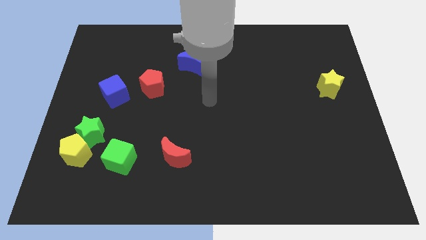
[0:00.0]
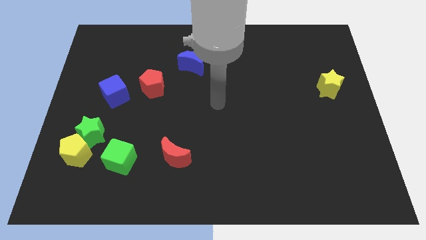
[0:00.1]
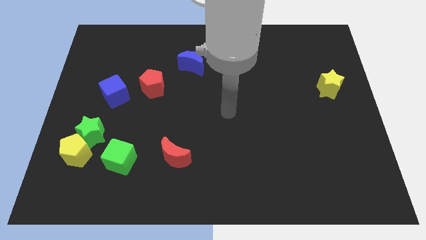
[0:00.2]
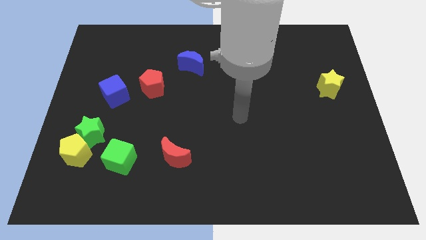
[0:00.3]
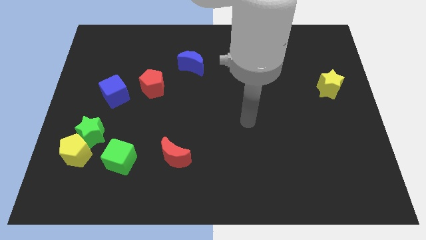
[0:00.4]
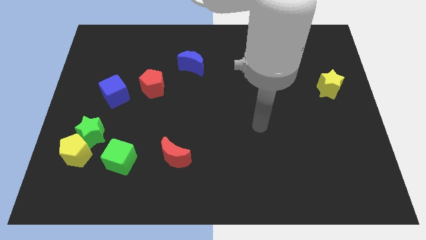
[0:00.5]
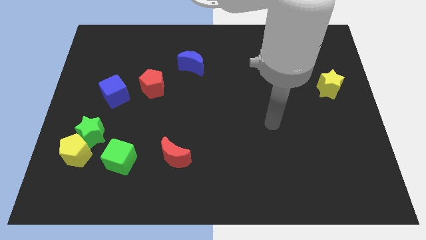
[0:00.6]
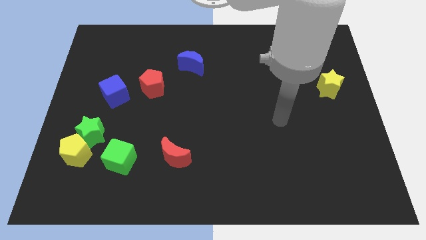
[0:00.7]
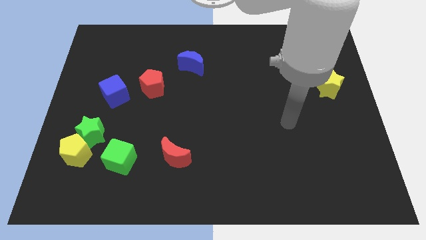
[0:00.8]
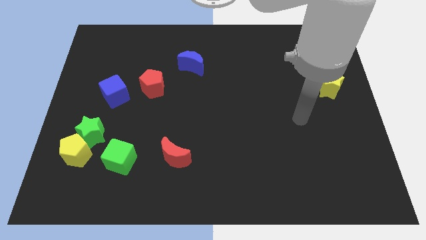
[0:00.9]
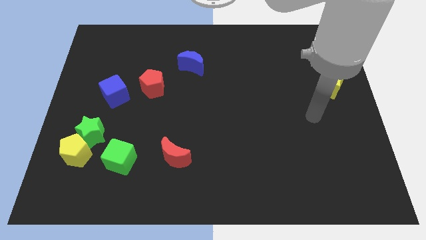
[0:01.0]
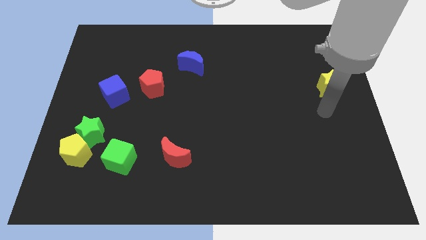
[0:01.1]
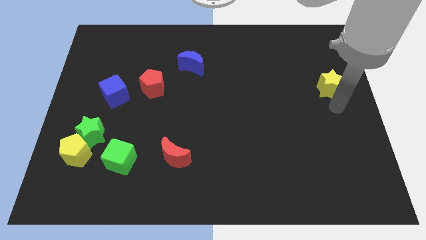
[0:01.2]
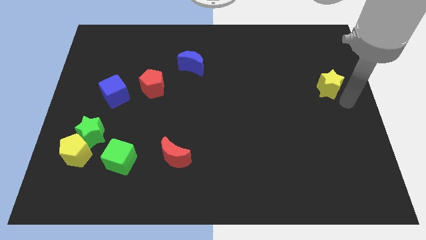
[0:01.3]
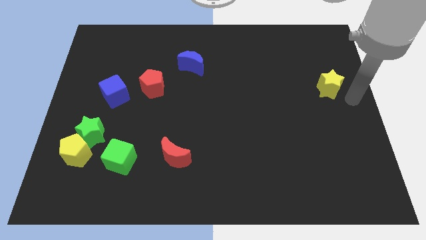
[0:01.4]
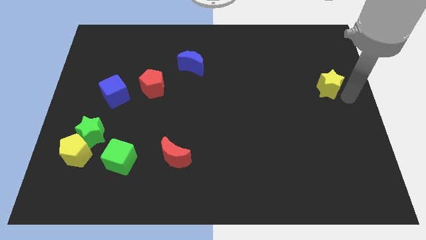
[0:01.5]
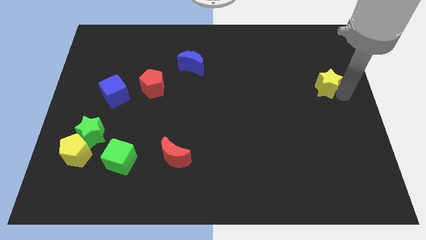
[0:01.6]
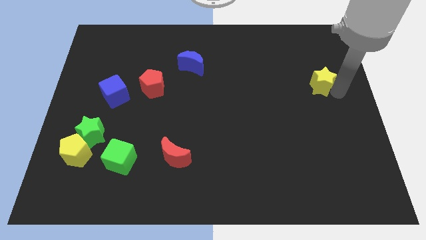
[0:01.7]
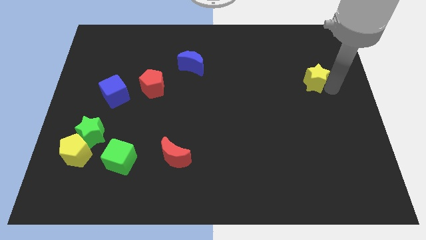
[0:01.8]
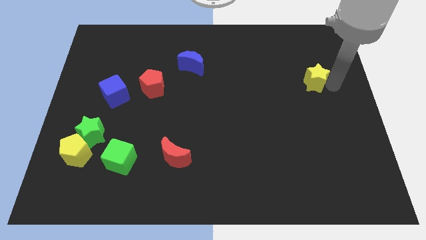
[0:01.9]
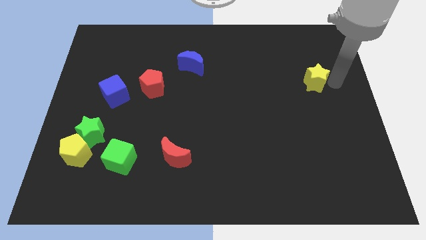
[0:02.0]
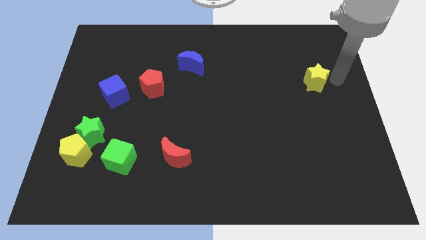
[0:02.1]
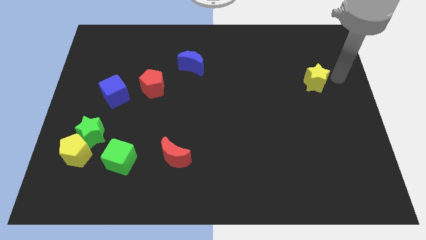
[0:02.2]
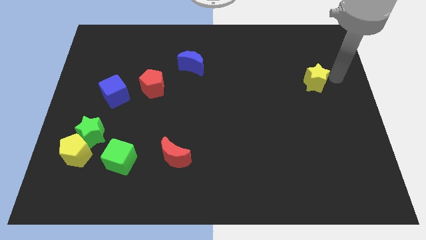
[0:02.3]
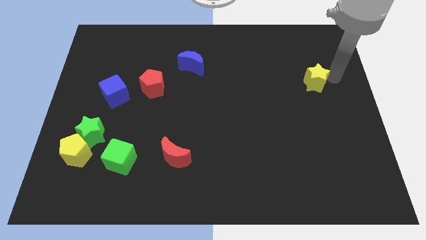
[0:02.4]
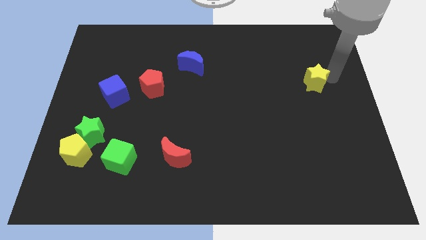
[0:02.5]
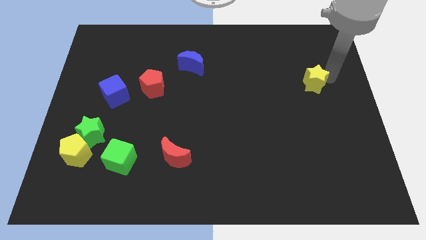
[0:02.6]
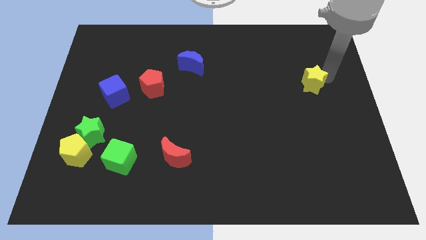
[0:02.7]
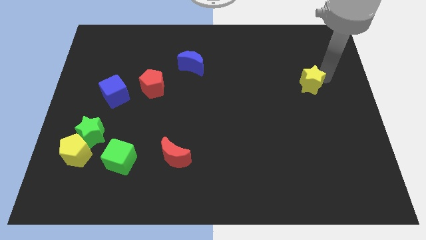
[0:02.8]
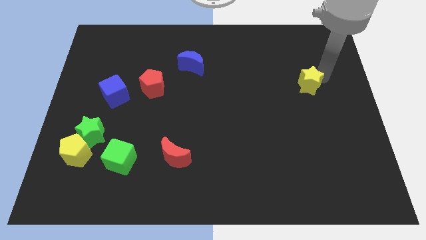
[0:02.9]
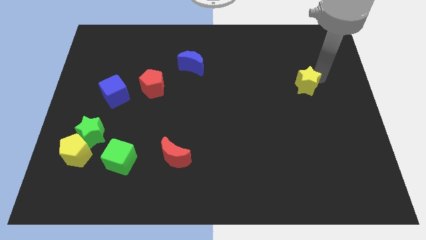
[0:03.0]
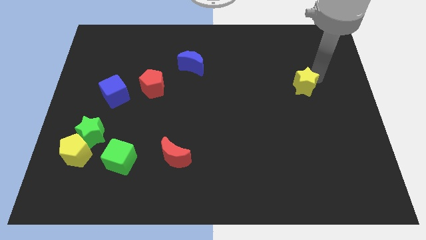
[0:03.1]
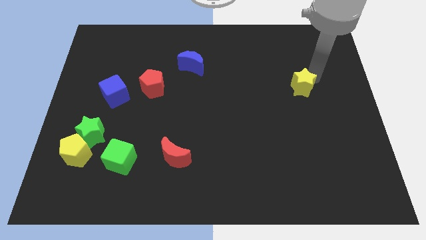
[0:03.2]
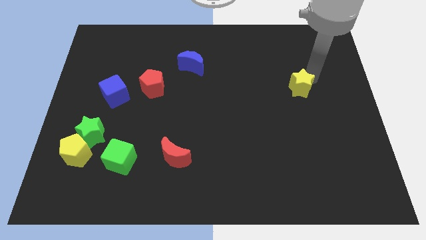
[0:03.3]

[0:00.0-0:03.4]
slightly slide the yellow star to the left

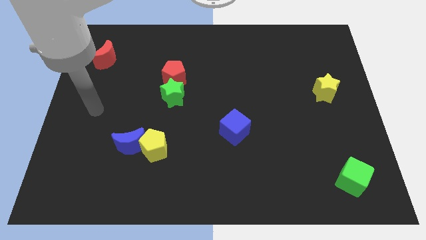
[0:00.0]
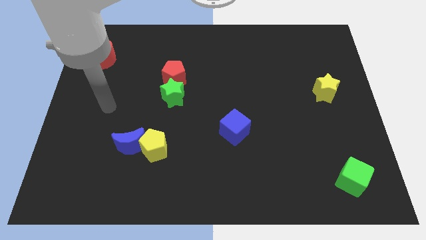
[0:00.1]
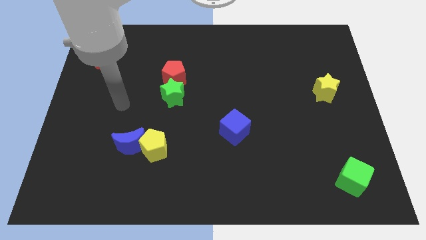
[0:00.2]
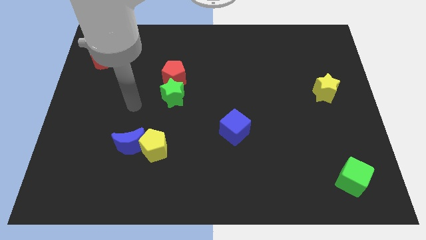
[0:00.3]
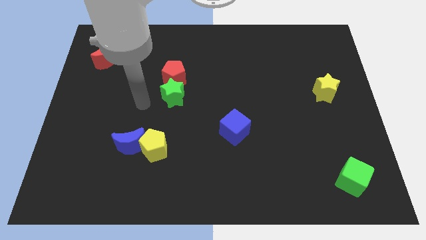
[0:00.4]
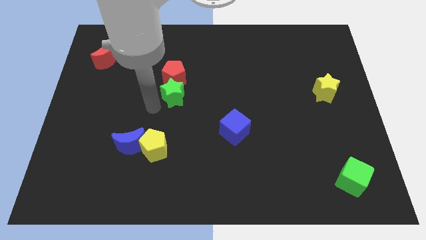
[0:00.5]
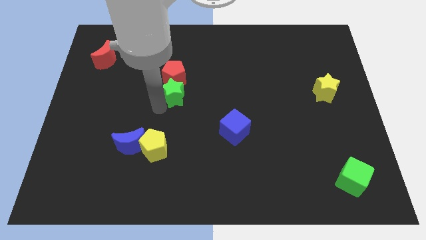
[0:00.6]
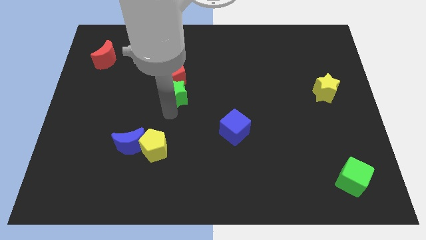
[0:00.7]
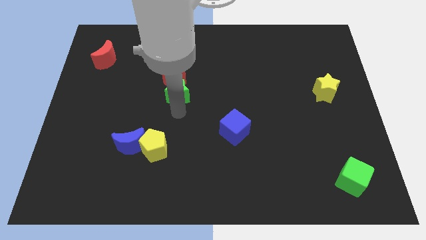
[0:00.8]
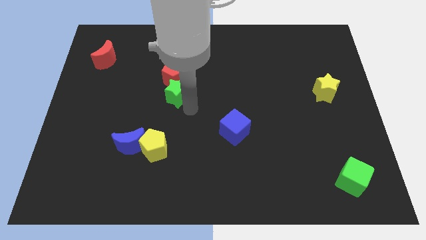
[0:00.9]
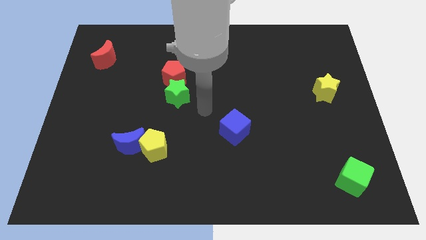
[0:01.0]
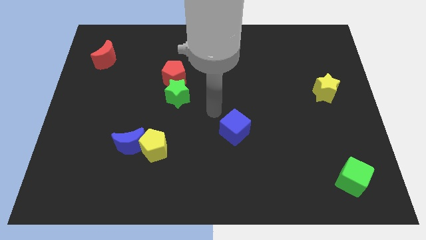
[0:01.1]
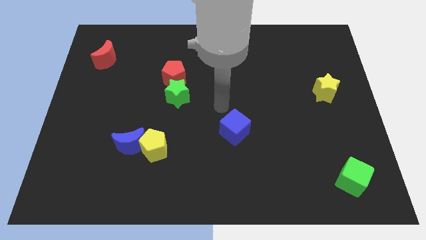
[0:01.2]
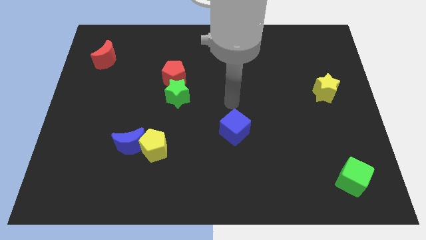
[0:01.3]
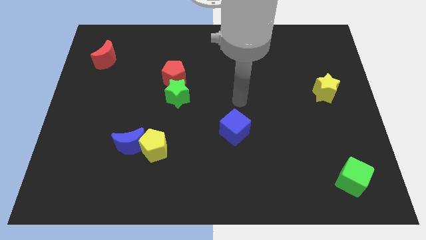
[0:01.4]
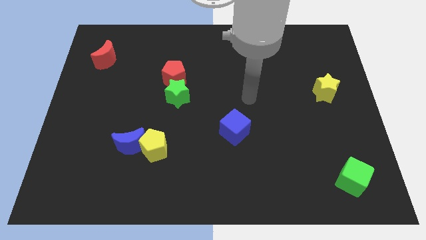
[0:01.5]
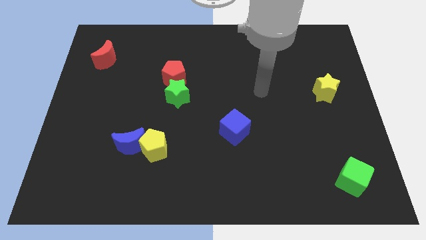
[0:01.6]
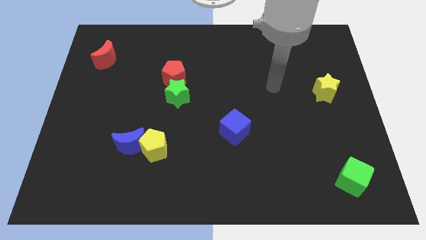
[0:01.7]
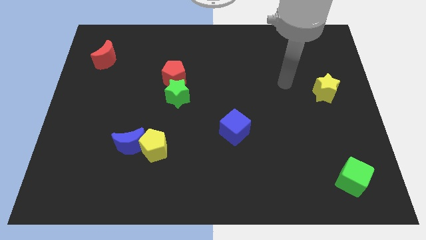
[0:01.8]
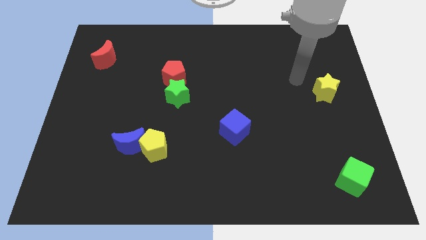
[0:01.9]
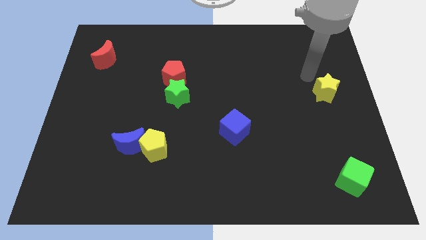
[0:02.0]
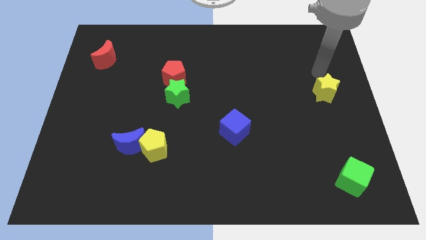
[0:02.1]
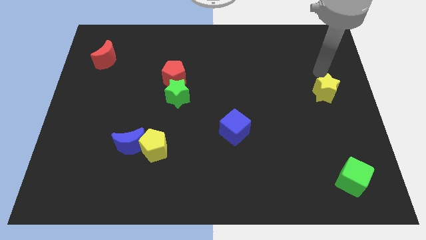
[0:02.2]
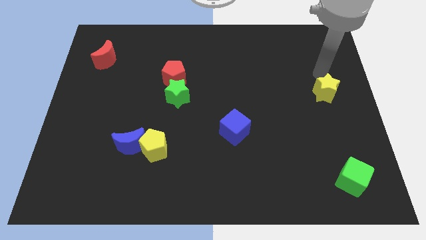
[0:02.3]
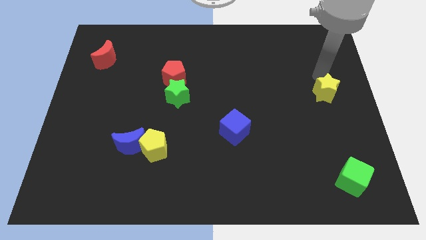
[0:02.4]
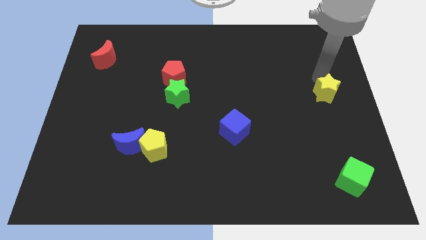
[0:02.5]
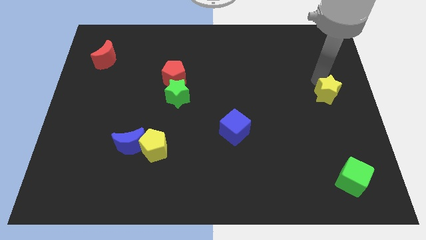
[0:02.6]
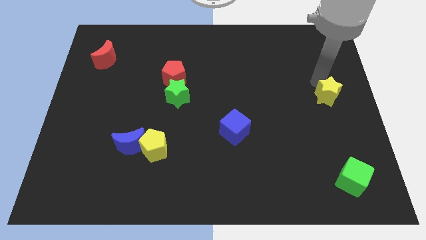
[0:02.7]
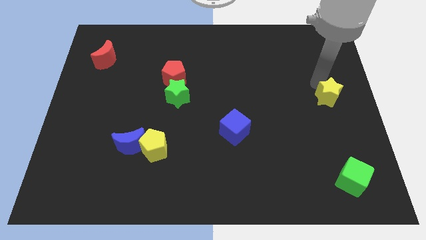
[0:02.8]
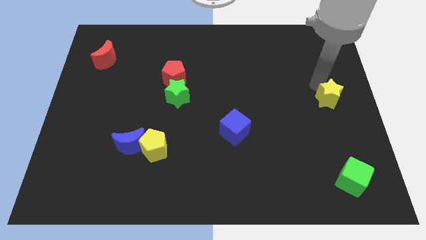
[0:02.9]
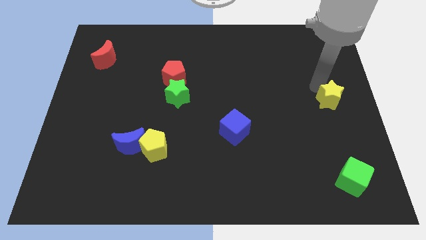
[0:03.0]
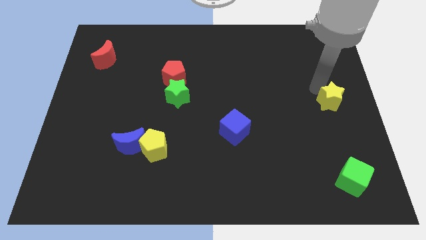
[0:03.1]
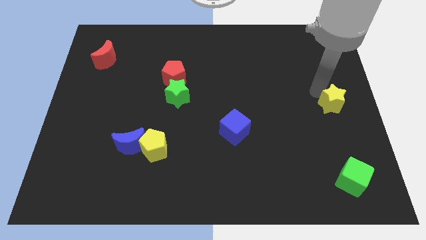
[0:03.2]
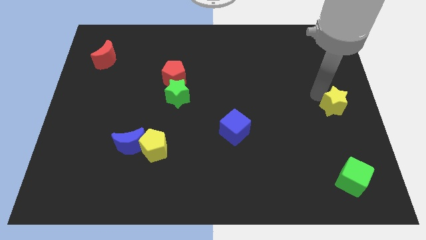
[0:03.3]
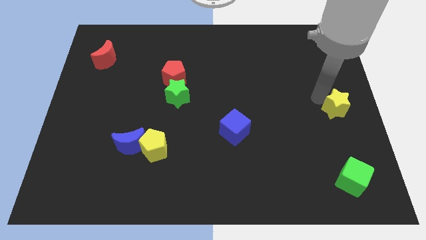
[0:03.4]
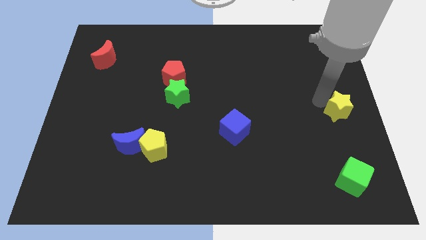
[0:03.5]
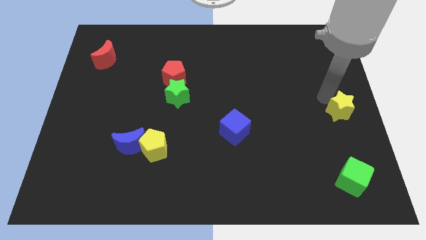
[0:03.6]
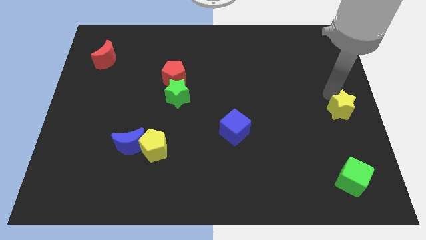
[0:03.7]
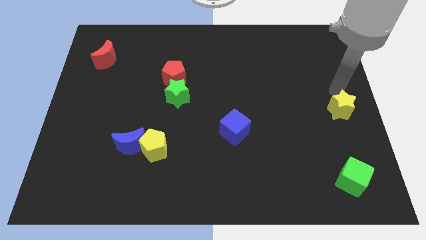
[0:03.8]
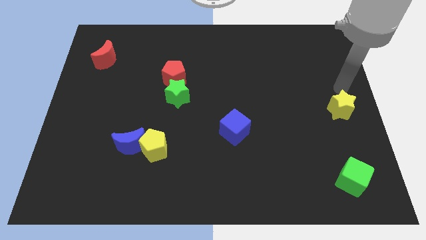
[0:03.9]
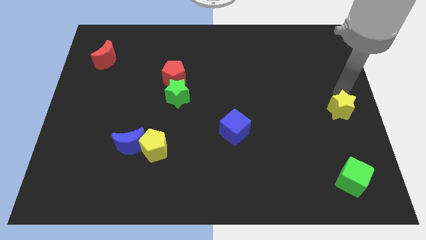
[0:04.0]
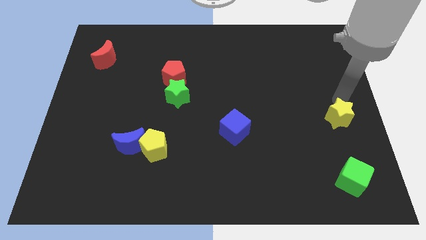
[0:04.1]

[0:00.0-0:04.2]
slide the yellow star slightly down
